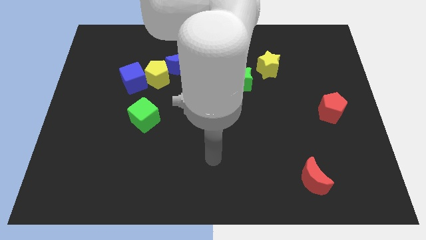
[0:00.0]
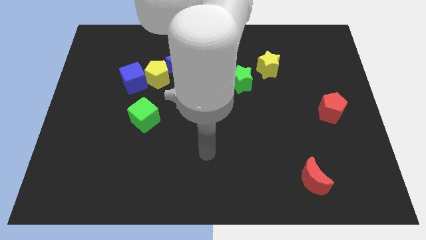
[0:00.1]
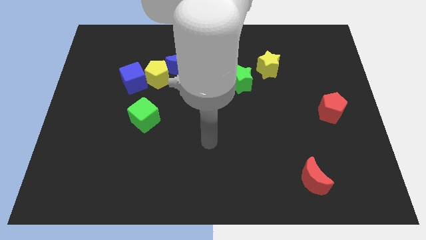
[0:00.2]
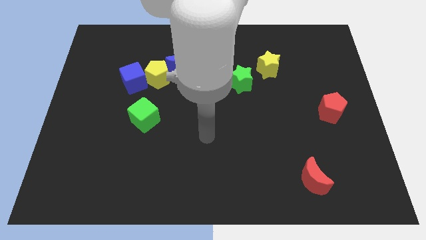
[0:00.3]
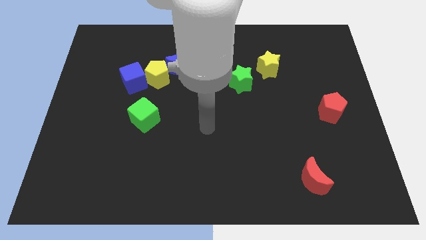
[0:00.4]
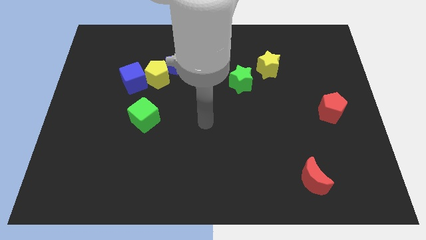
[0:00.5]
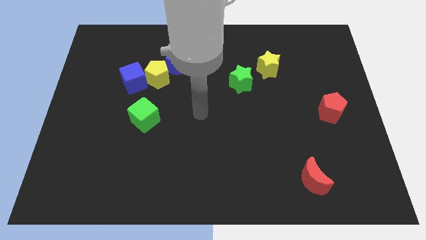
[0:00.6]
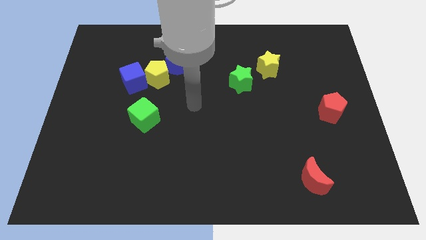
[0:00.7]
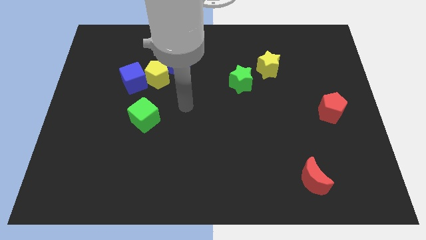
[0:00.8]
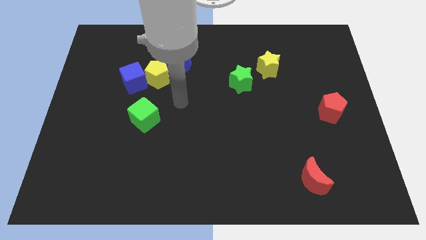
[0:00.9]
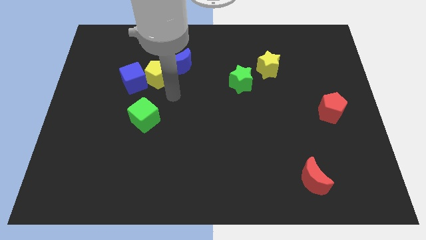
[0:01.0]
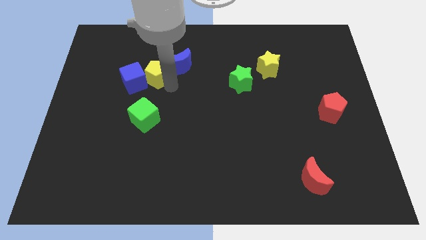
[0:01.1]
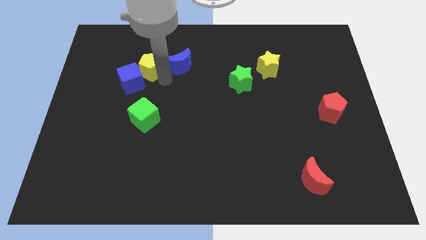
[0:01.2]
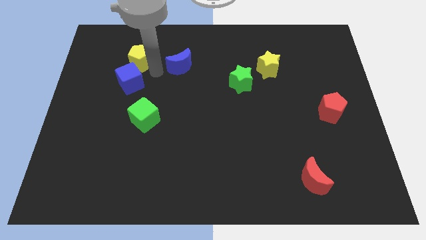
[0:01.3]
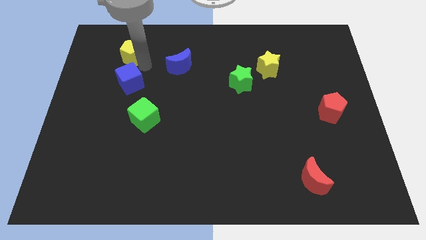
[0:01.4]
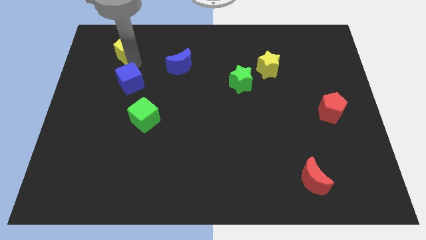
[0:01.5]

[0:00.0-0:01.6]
pull the blue cube apart from the yellow pentagon

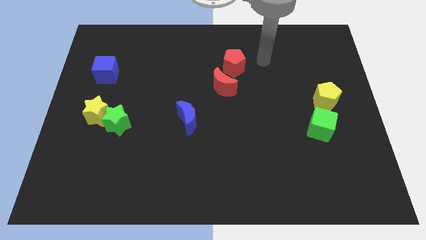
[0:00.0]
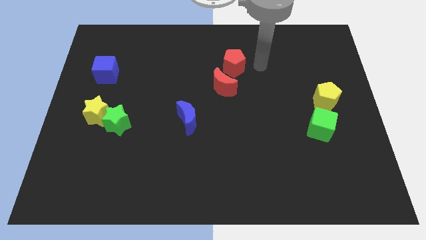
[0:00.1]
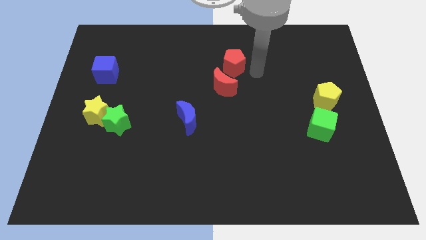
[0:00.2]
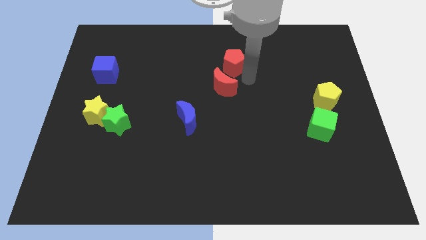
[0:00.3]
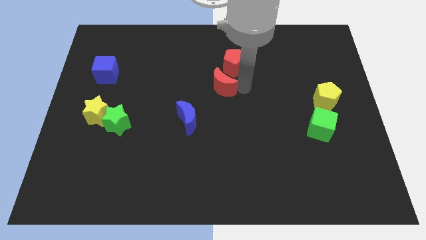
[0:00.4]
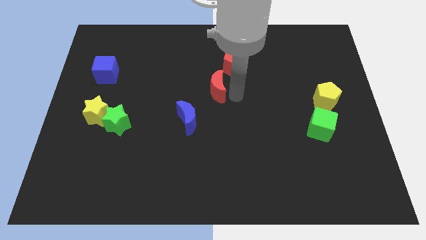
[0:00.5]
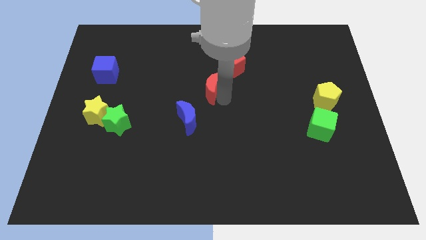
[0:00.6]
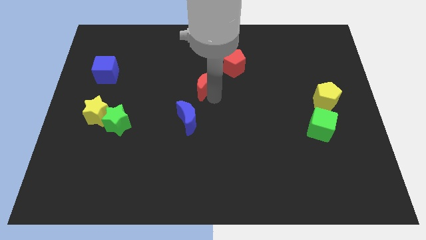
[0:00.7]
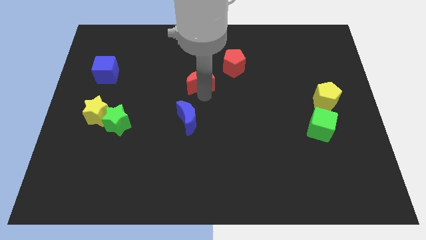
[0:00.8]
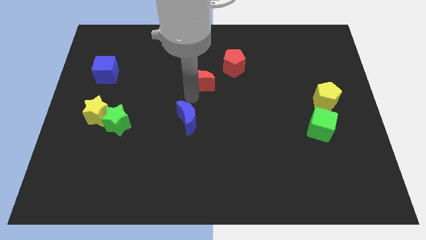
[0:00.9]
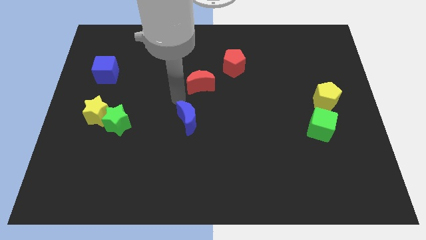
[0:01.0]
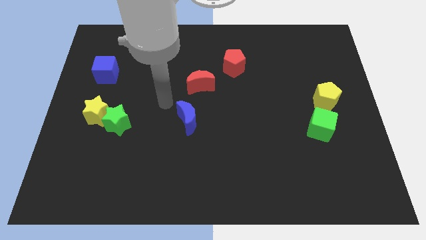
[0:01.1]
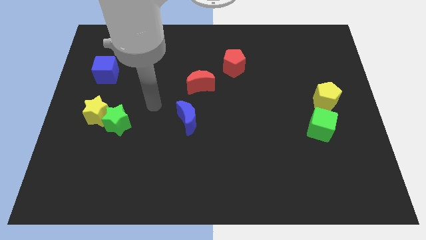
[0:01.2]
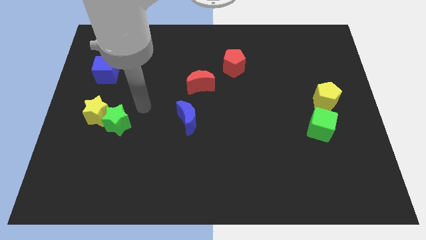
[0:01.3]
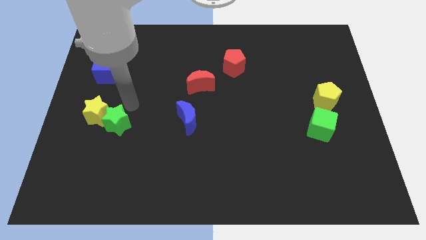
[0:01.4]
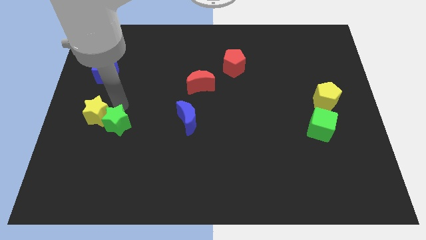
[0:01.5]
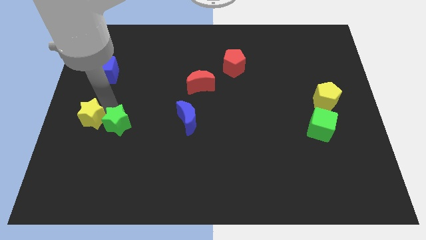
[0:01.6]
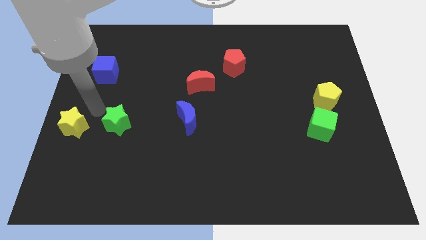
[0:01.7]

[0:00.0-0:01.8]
pull the green star apart from the yellow star

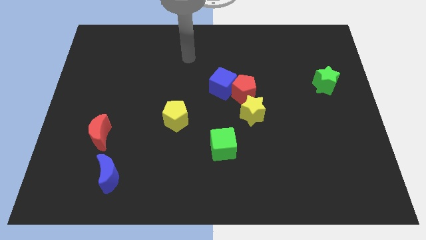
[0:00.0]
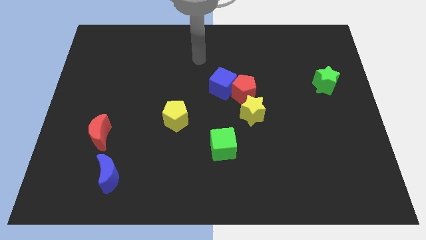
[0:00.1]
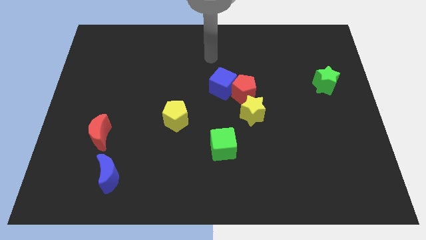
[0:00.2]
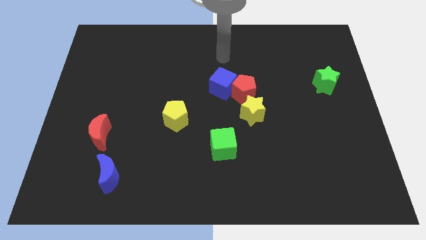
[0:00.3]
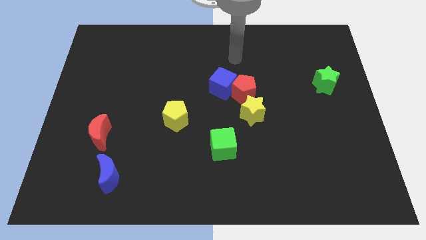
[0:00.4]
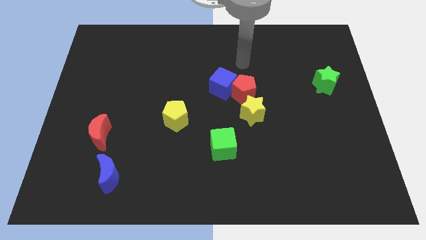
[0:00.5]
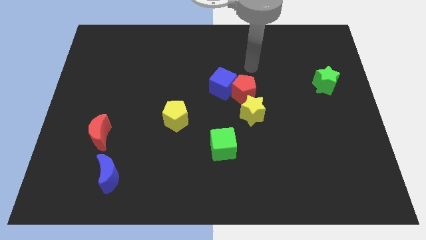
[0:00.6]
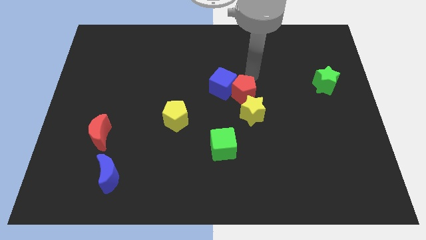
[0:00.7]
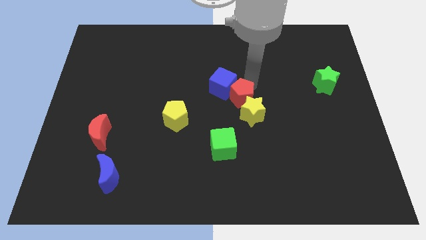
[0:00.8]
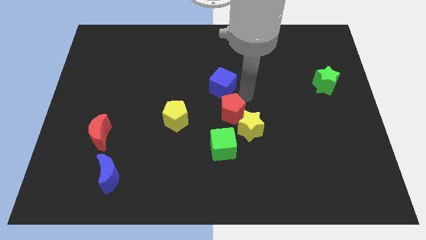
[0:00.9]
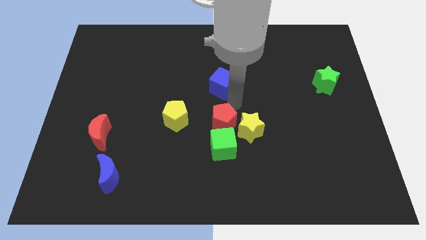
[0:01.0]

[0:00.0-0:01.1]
move the blue cube away from the red pentagon

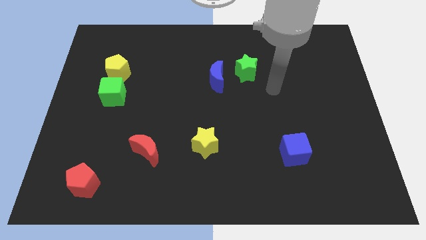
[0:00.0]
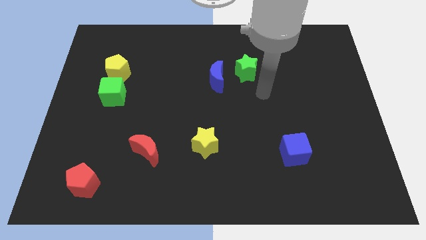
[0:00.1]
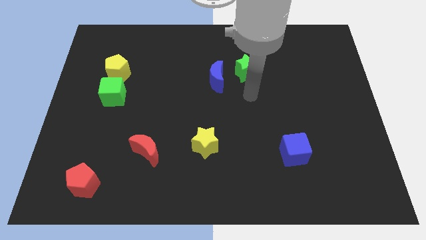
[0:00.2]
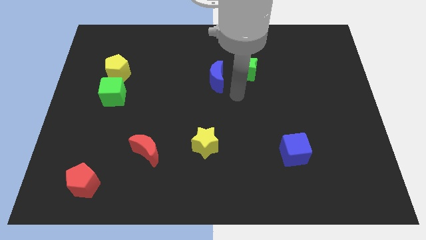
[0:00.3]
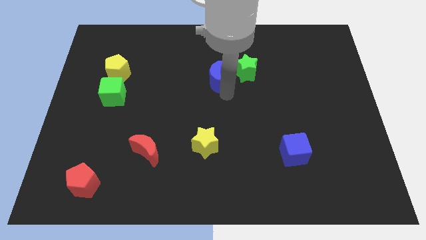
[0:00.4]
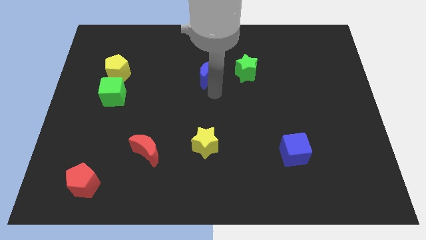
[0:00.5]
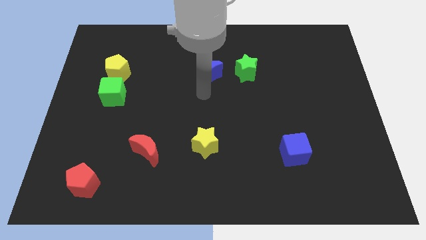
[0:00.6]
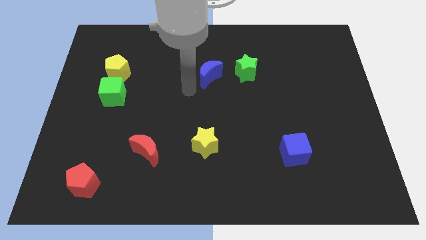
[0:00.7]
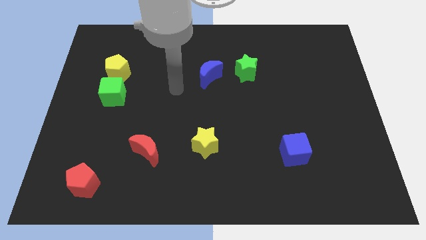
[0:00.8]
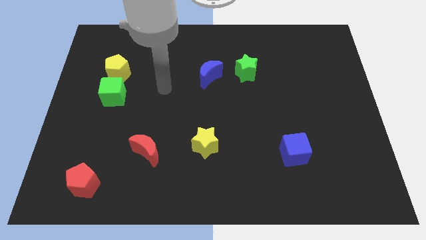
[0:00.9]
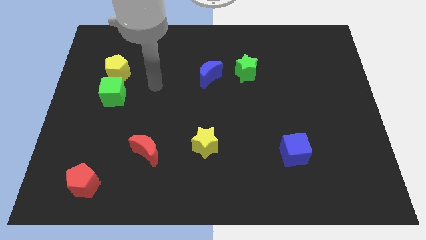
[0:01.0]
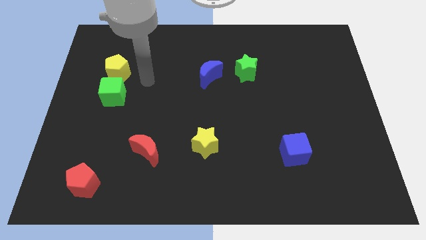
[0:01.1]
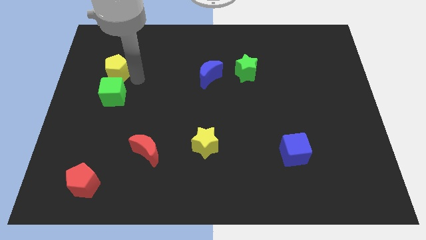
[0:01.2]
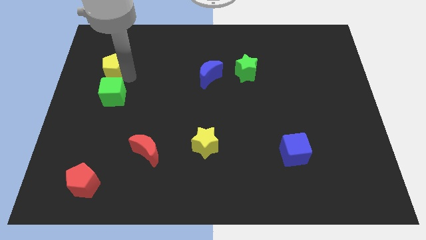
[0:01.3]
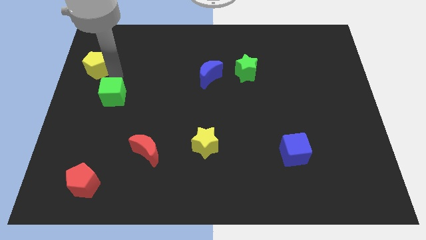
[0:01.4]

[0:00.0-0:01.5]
move the green cube away from the yellow pentagon

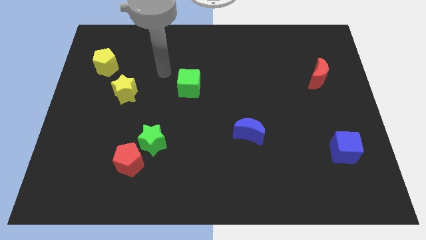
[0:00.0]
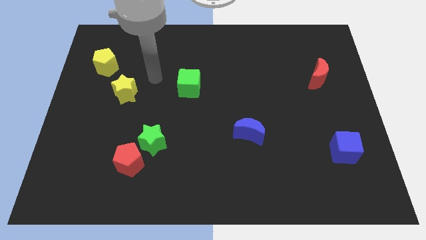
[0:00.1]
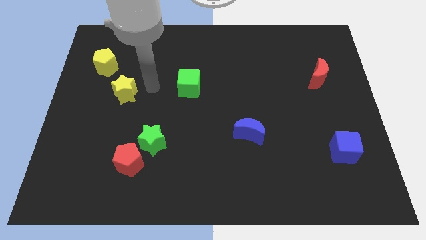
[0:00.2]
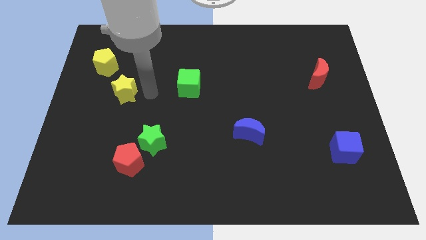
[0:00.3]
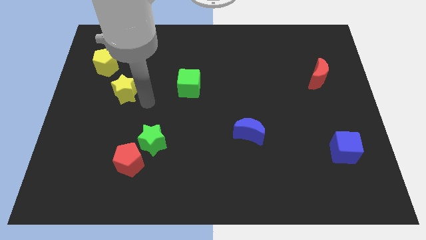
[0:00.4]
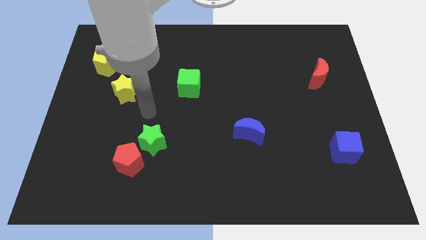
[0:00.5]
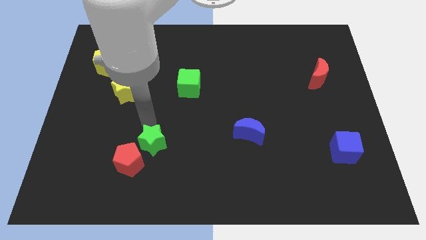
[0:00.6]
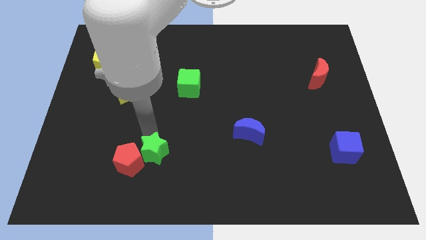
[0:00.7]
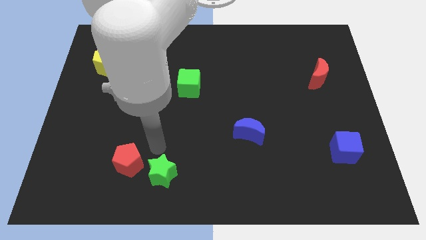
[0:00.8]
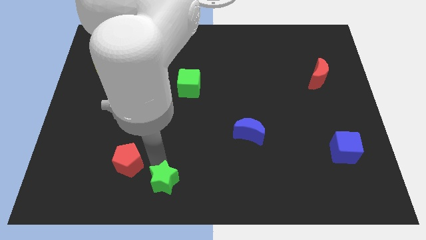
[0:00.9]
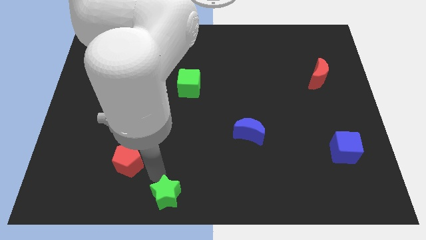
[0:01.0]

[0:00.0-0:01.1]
pull the red pentagon apart from the green star

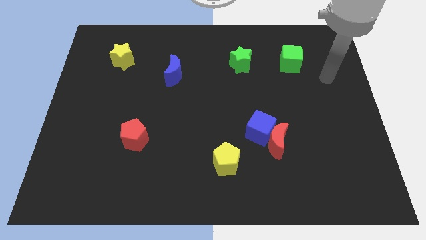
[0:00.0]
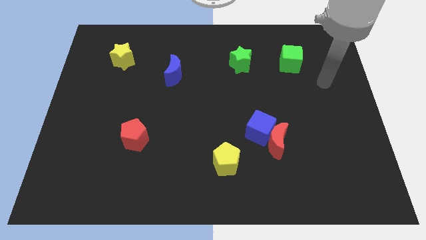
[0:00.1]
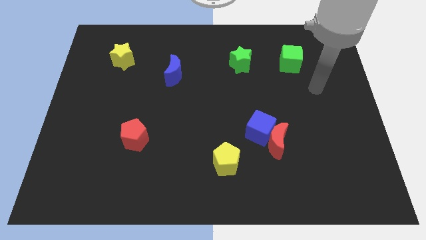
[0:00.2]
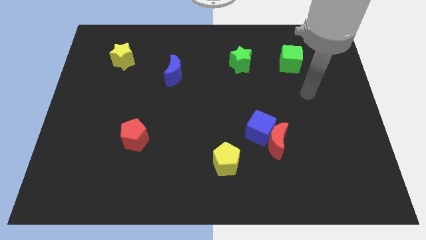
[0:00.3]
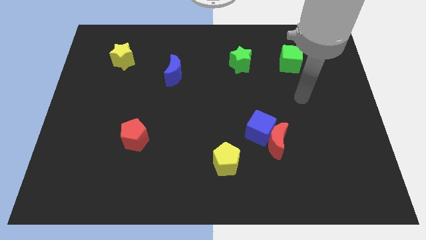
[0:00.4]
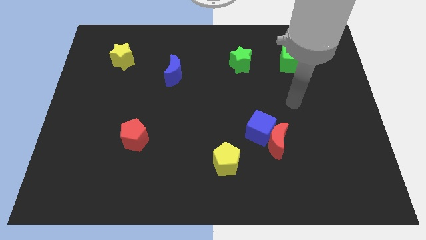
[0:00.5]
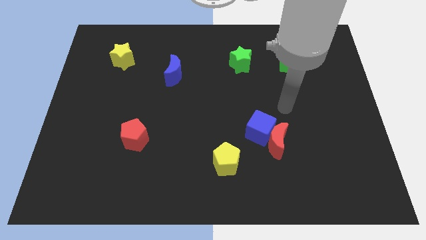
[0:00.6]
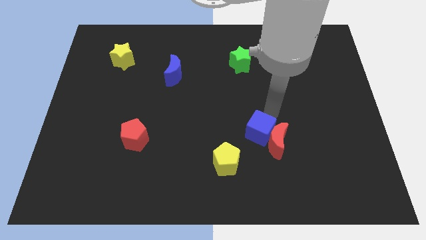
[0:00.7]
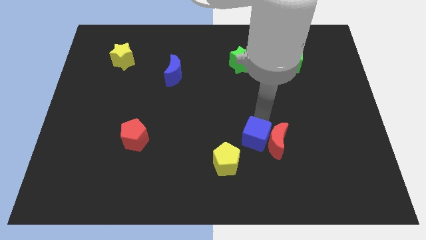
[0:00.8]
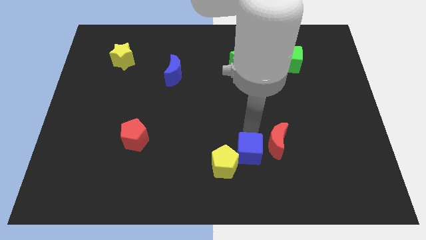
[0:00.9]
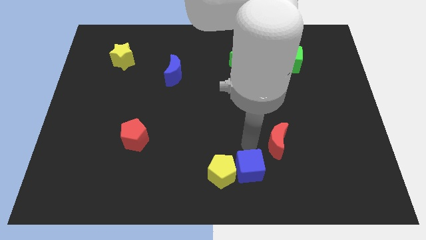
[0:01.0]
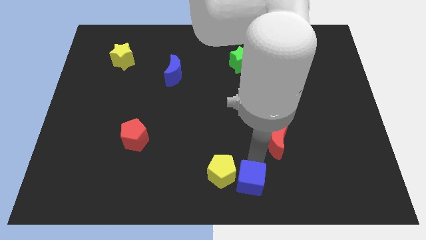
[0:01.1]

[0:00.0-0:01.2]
pull the red moon apart from the blue cube

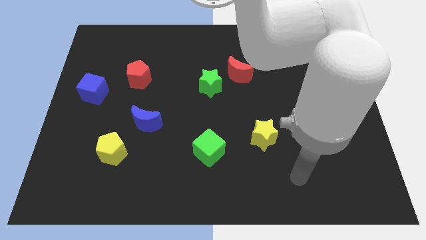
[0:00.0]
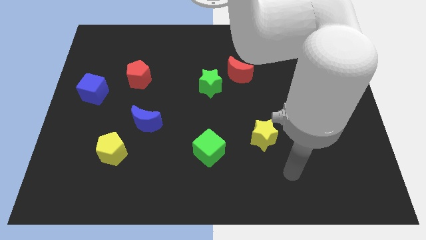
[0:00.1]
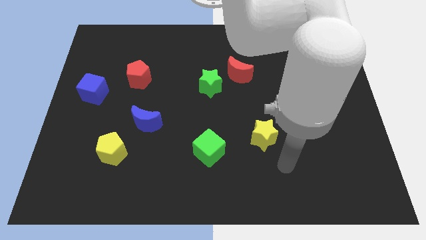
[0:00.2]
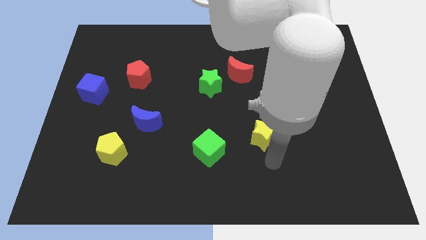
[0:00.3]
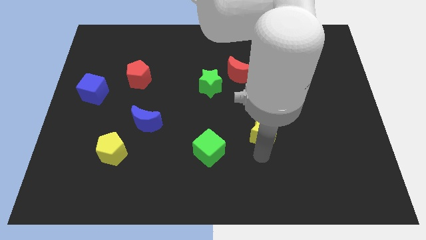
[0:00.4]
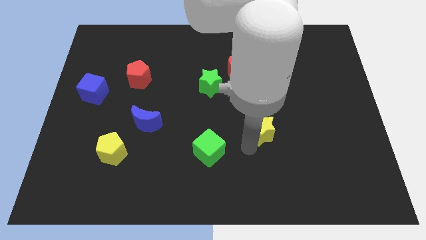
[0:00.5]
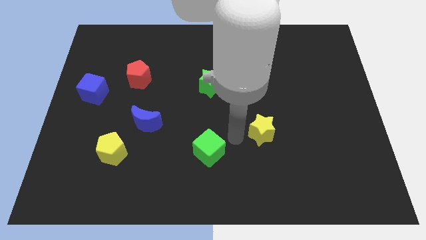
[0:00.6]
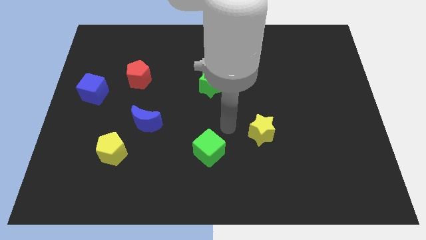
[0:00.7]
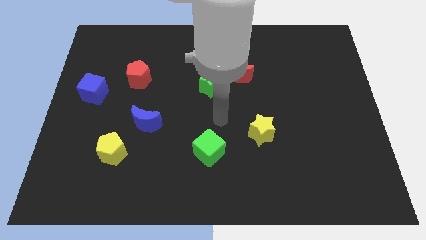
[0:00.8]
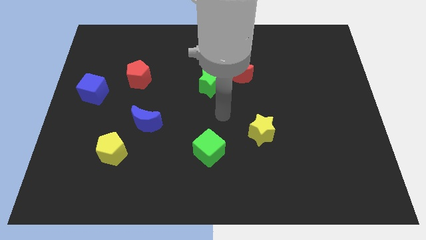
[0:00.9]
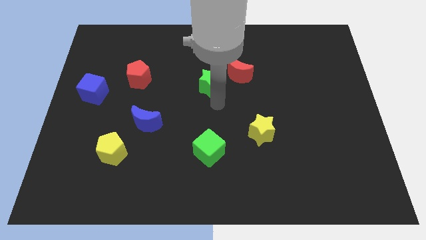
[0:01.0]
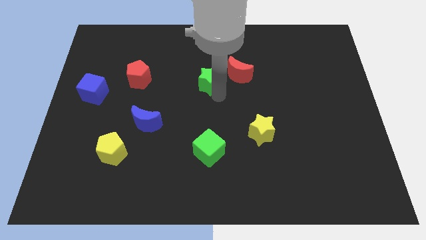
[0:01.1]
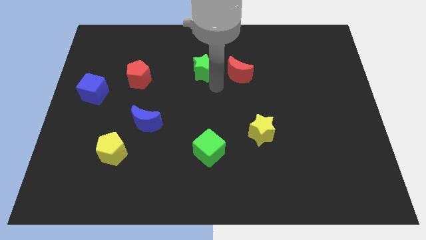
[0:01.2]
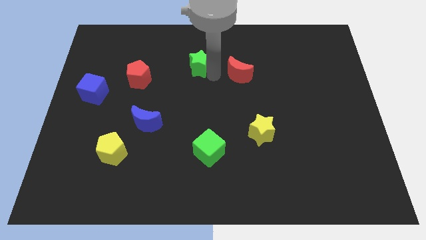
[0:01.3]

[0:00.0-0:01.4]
pull the red moon apart from the green star
